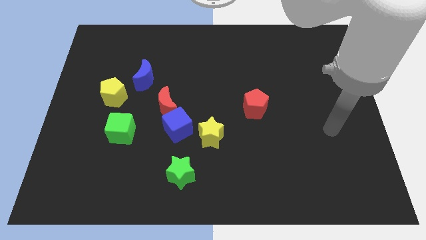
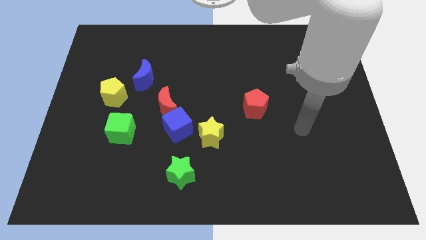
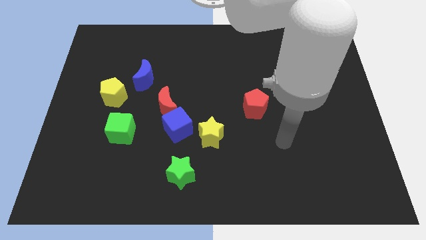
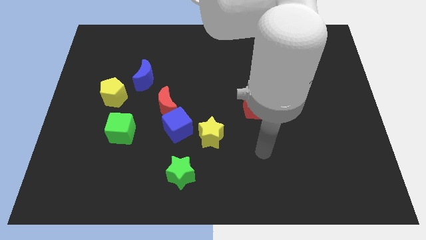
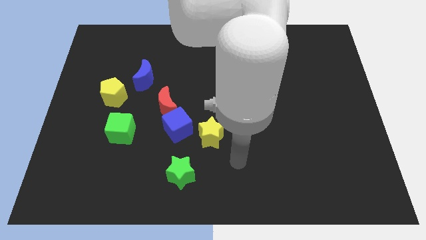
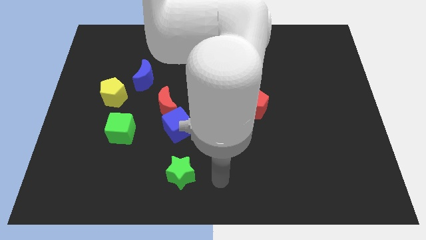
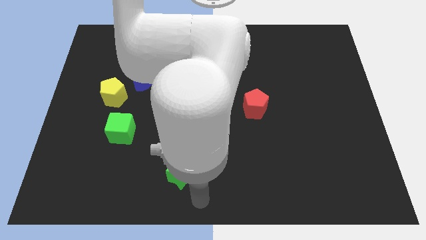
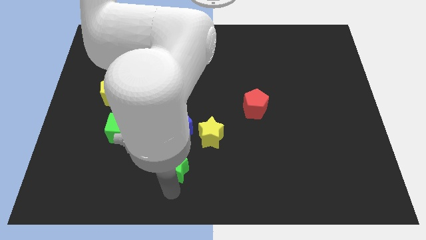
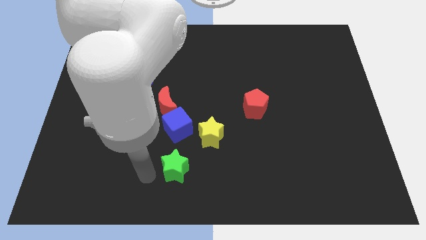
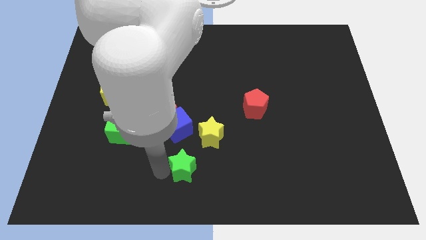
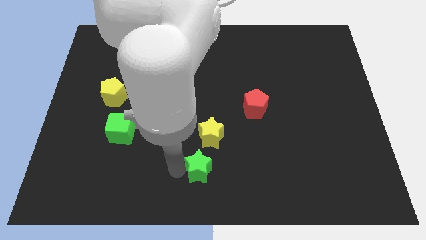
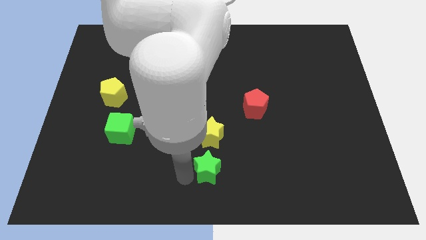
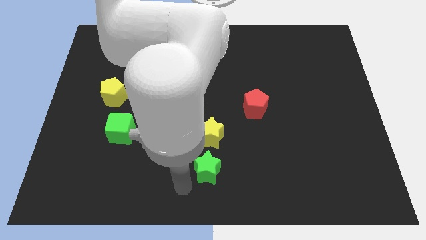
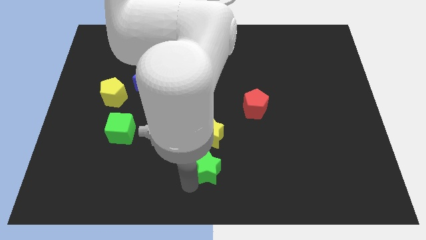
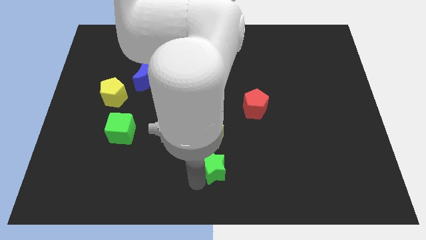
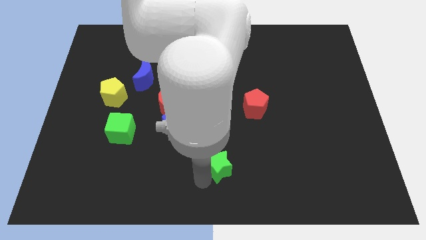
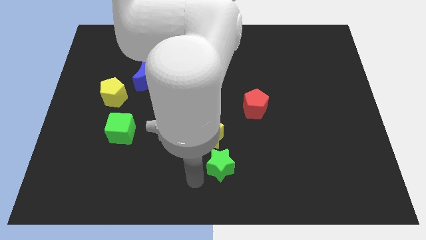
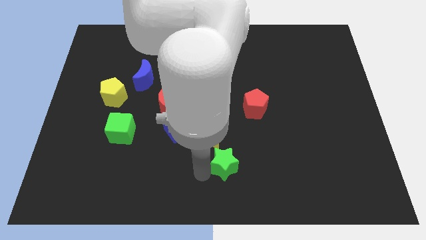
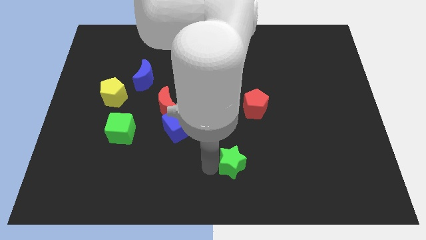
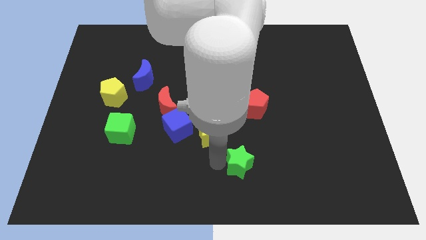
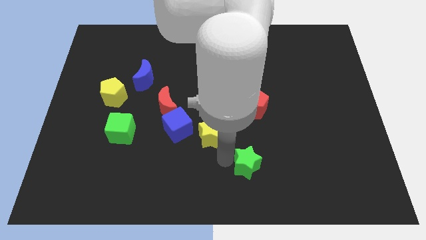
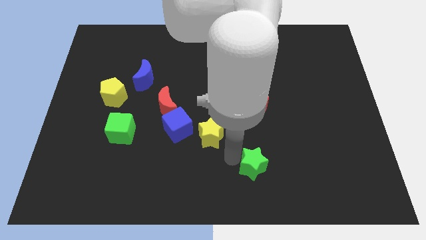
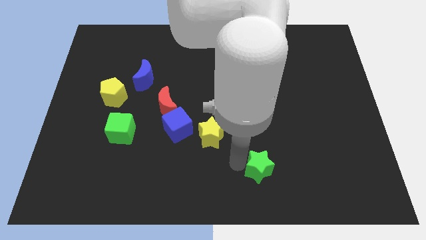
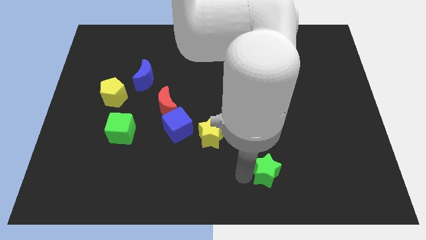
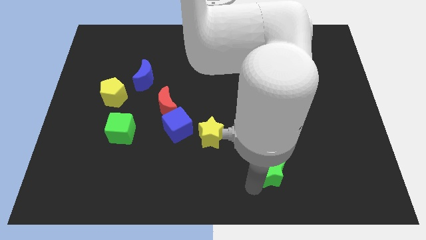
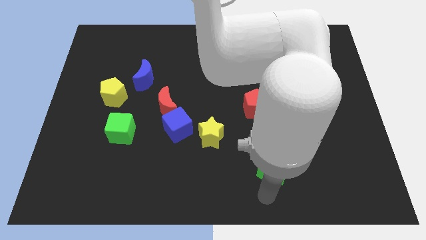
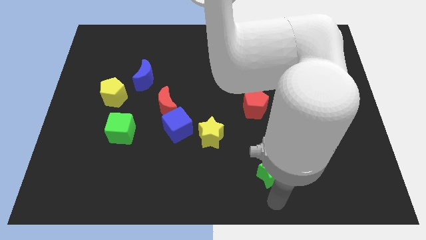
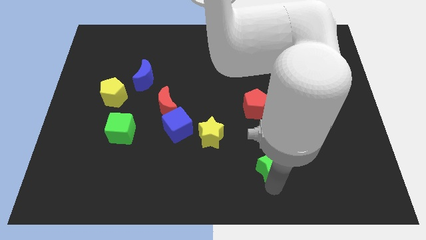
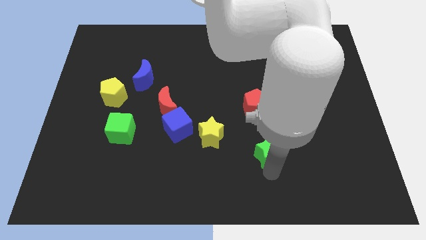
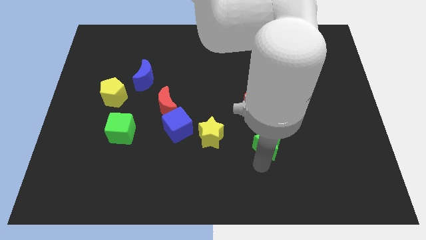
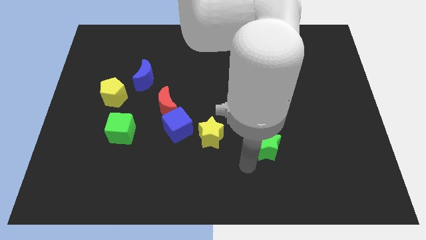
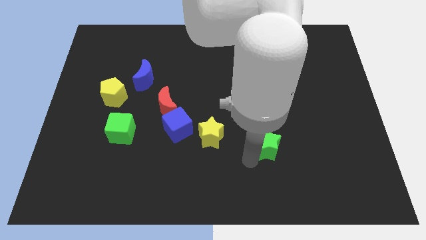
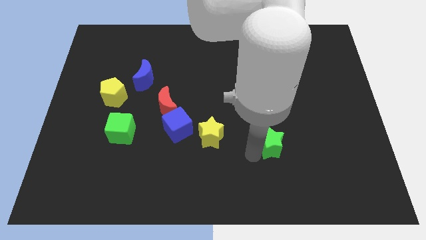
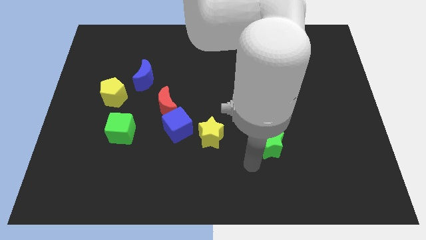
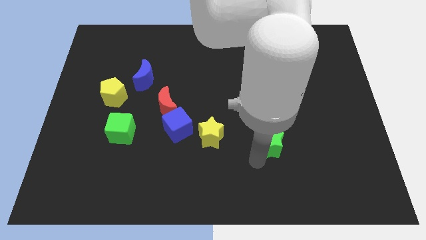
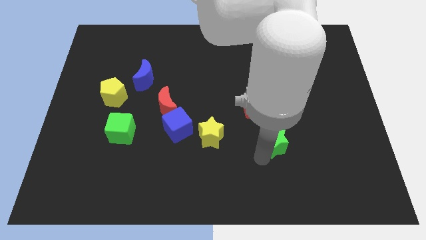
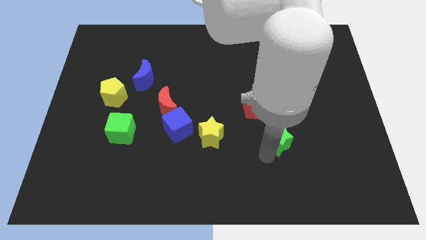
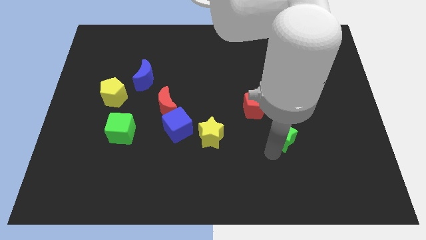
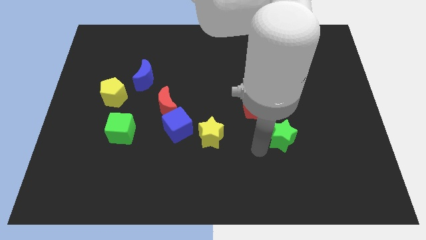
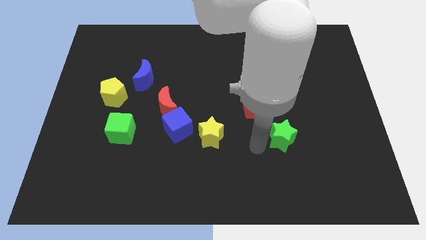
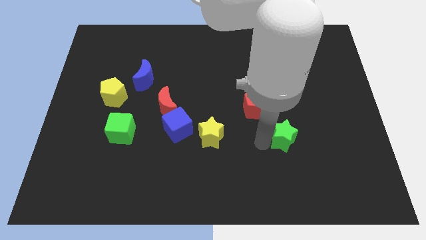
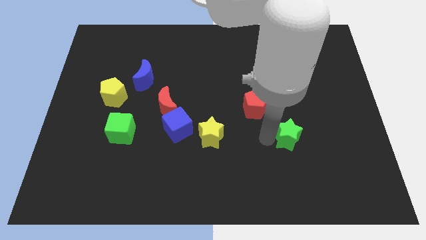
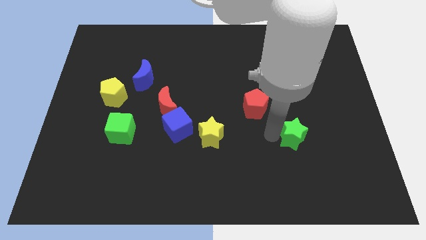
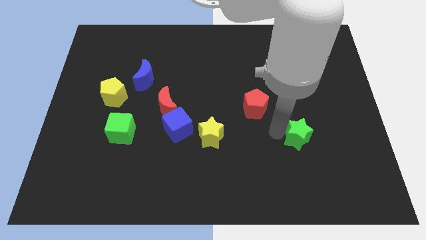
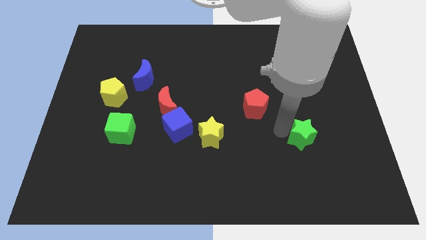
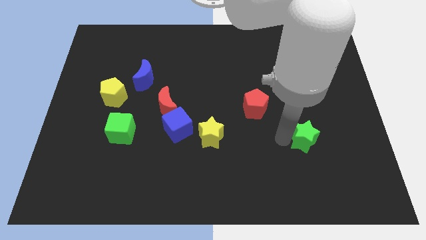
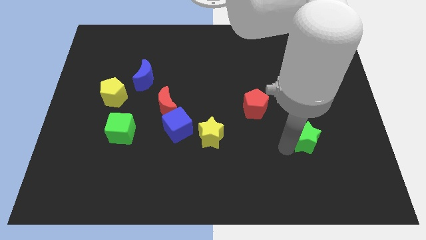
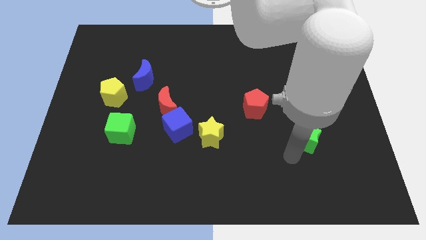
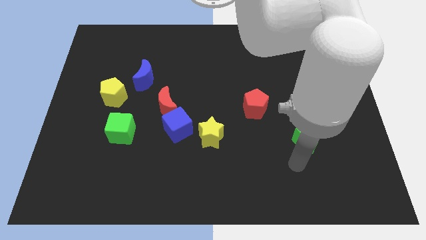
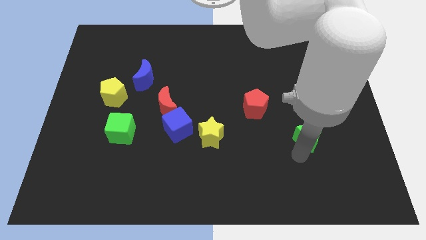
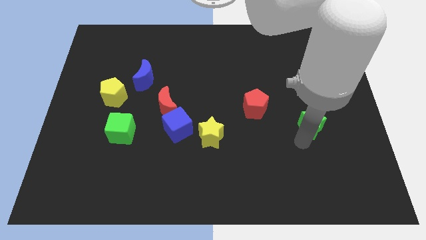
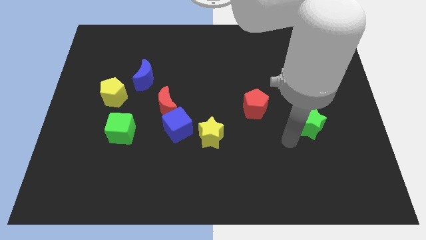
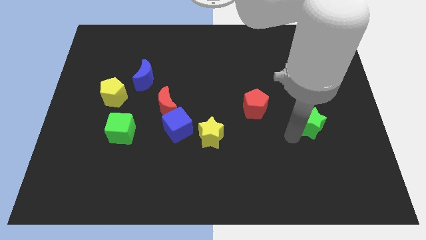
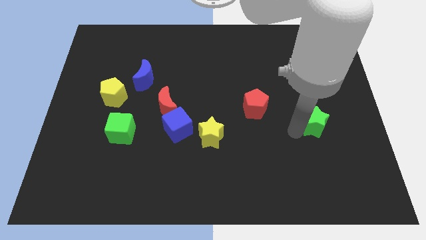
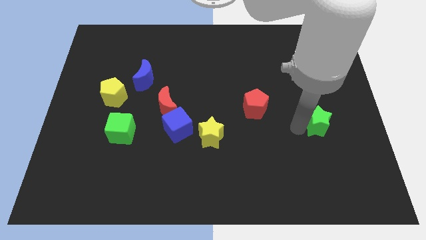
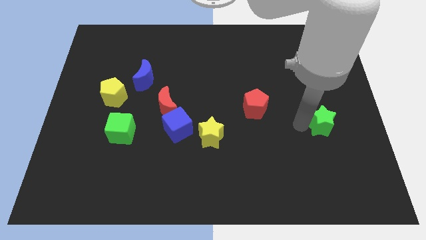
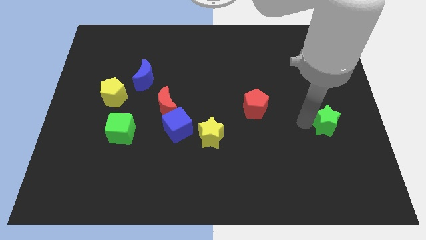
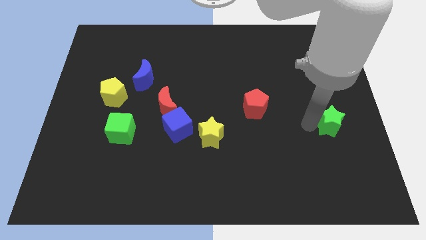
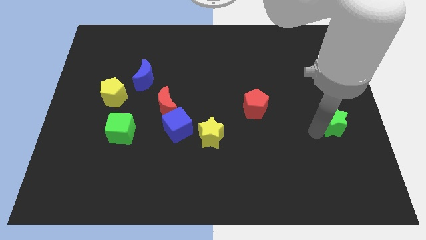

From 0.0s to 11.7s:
slide the green star to the center right
